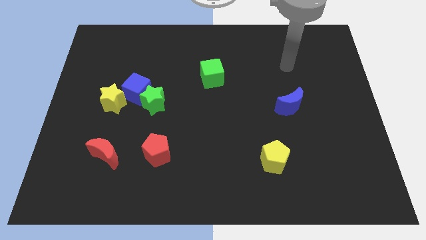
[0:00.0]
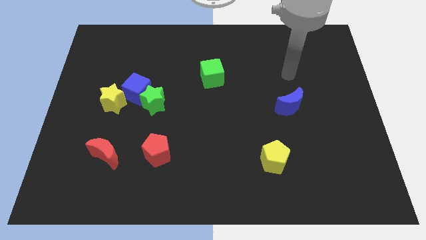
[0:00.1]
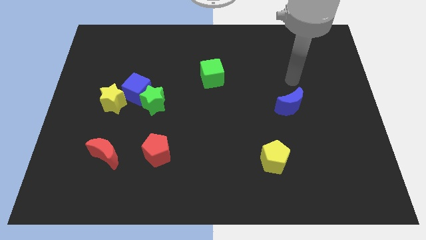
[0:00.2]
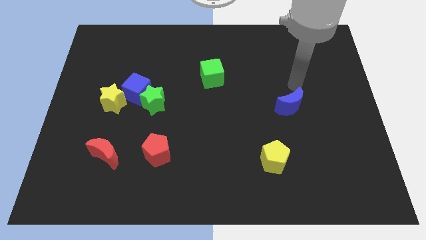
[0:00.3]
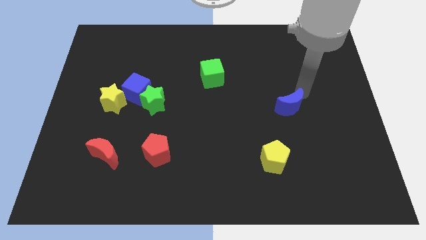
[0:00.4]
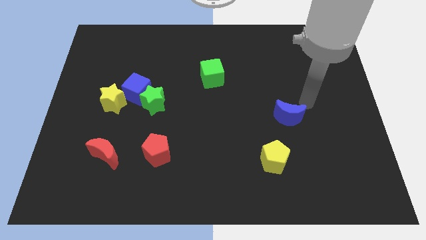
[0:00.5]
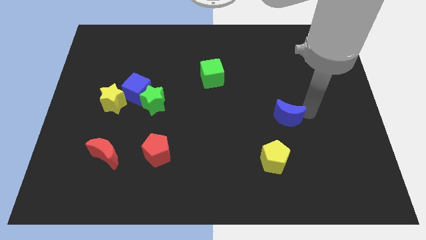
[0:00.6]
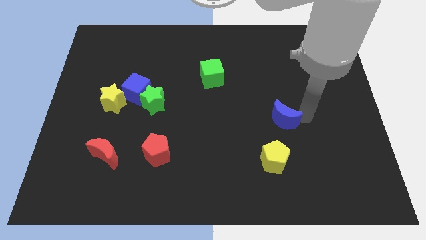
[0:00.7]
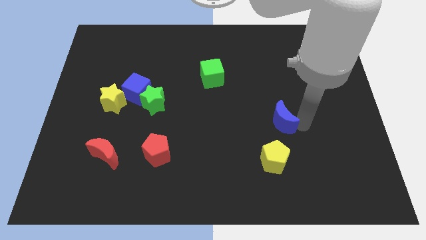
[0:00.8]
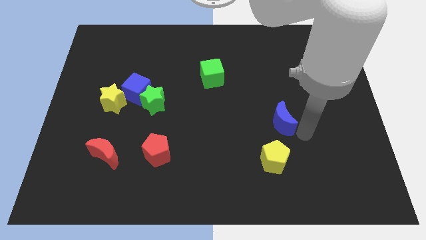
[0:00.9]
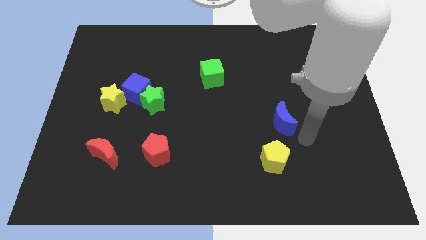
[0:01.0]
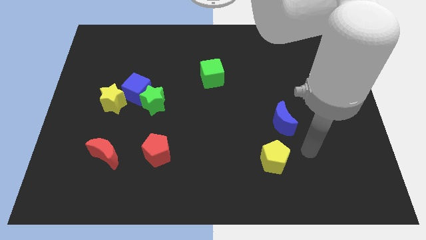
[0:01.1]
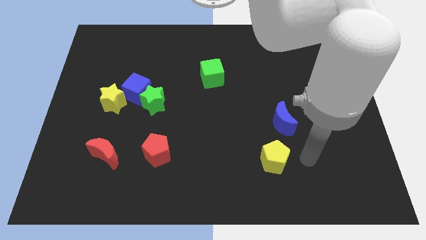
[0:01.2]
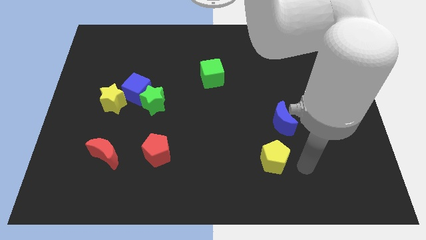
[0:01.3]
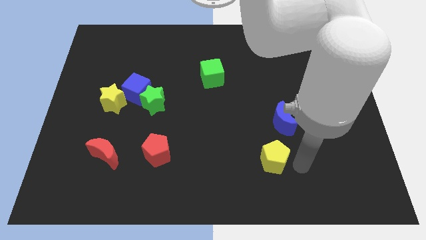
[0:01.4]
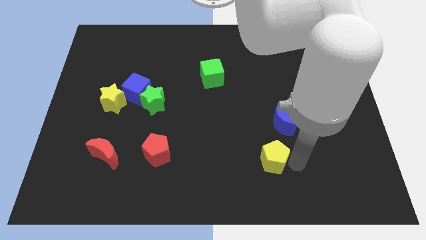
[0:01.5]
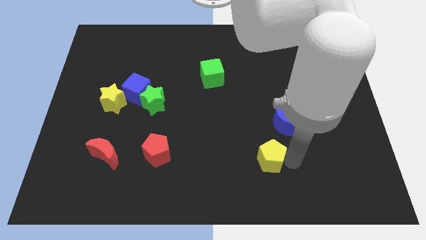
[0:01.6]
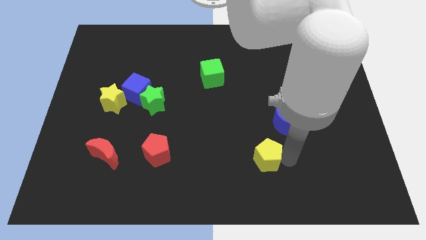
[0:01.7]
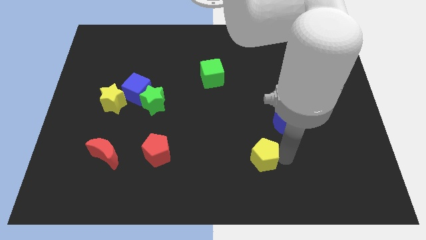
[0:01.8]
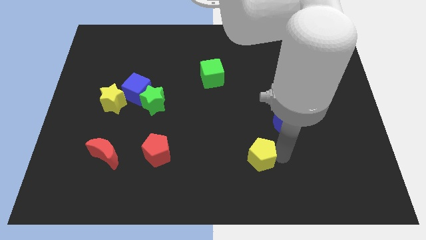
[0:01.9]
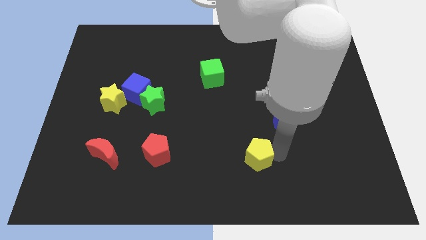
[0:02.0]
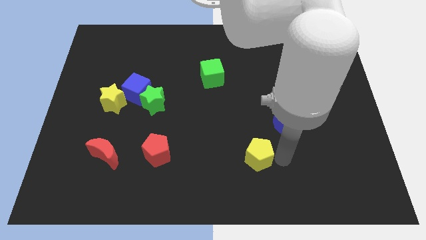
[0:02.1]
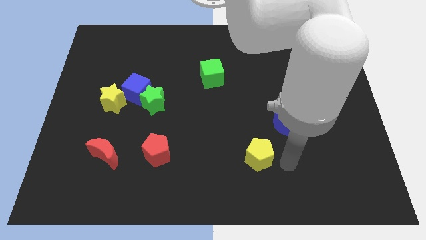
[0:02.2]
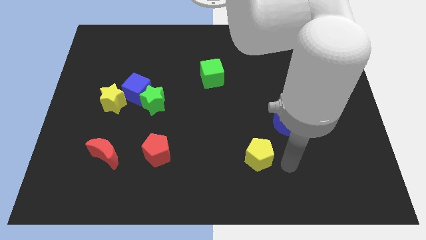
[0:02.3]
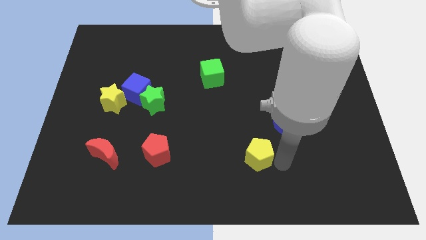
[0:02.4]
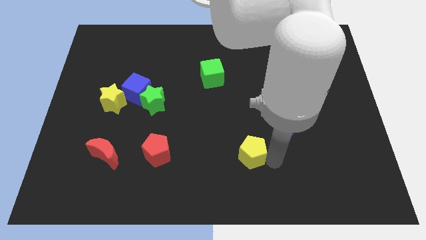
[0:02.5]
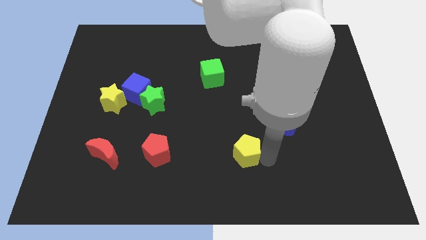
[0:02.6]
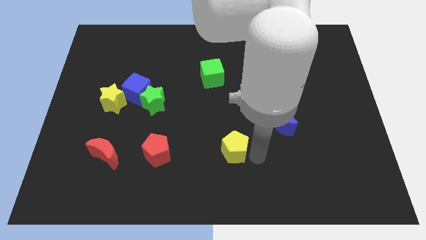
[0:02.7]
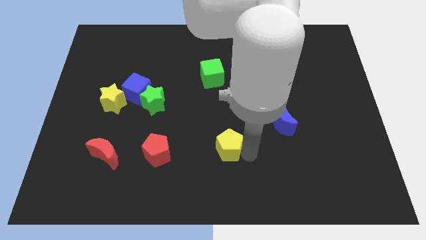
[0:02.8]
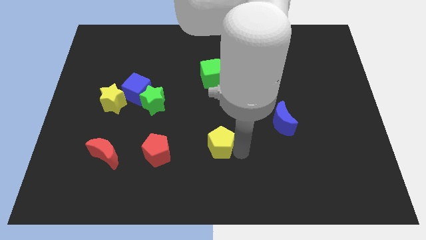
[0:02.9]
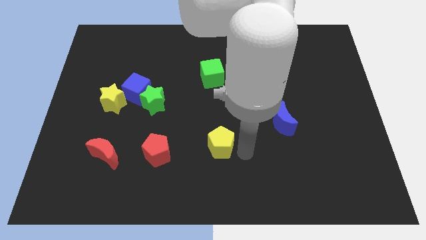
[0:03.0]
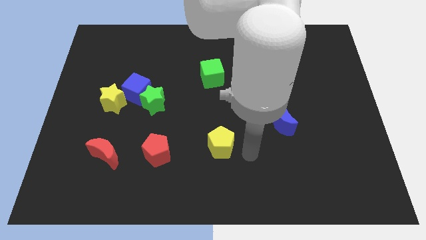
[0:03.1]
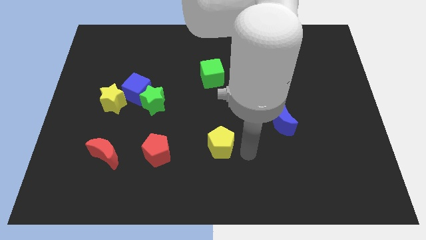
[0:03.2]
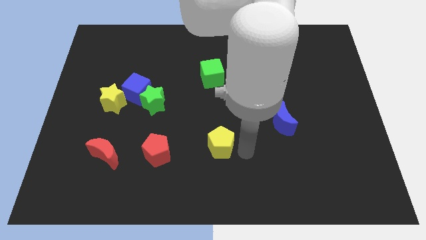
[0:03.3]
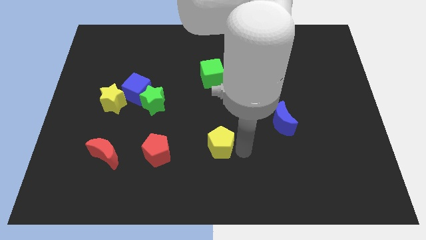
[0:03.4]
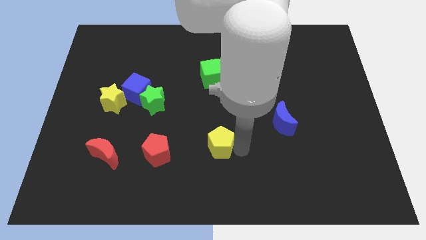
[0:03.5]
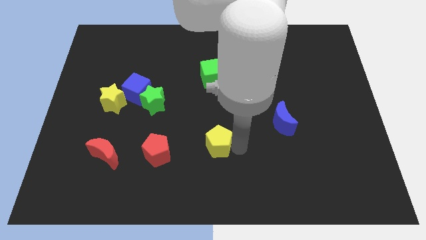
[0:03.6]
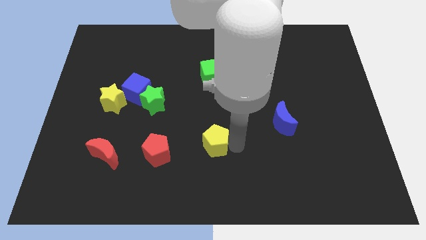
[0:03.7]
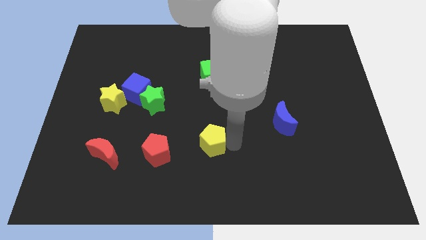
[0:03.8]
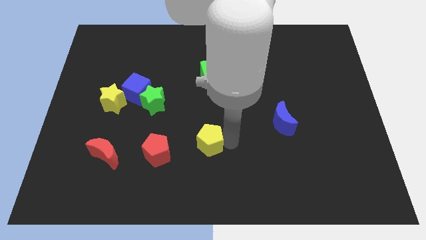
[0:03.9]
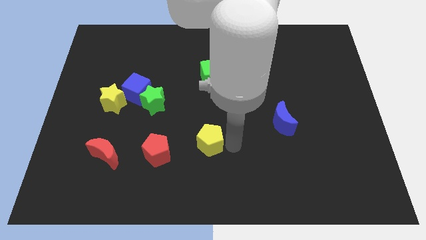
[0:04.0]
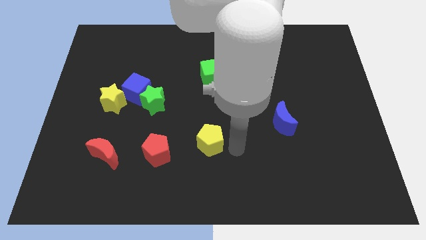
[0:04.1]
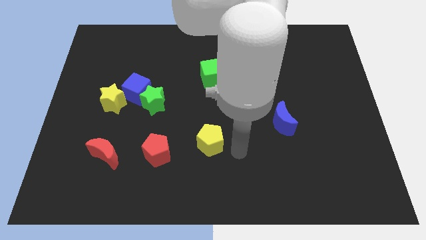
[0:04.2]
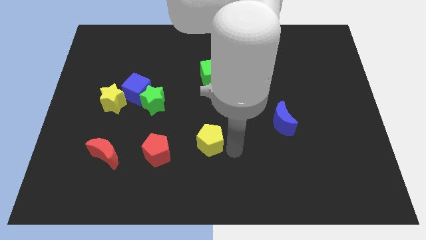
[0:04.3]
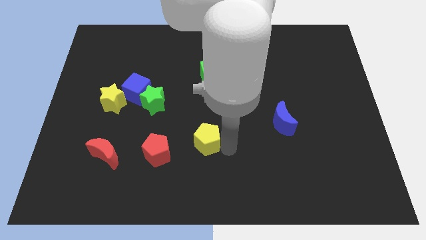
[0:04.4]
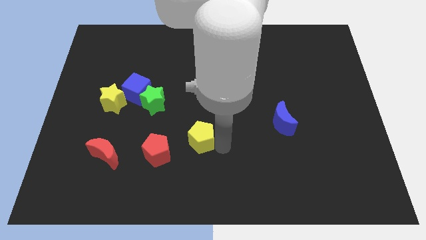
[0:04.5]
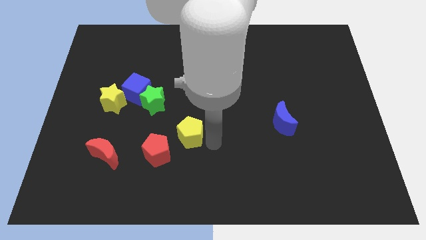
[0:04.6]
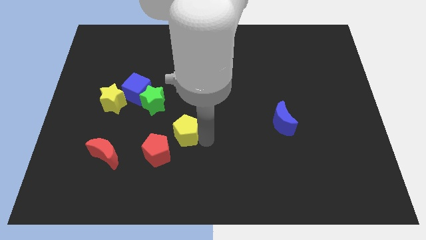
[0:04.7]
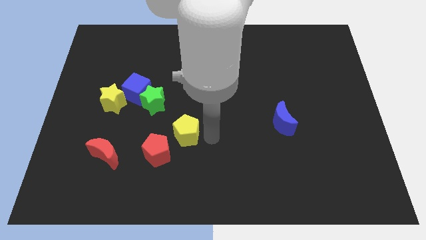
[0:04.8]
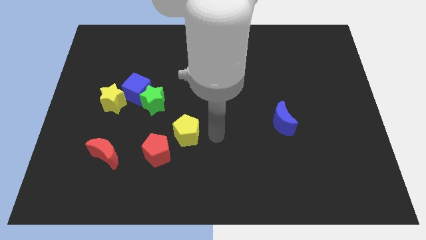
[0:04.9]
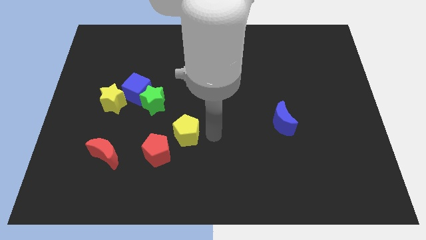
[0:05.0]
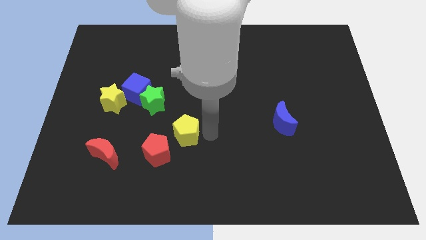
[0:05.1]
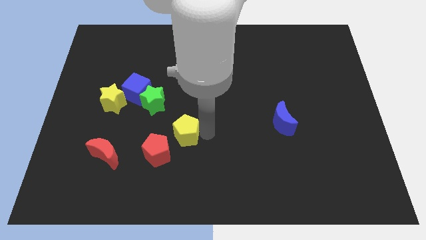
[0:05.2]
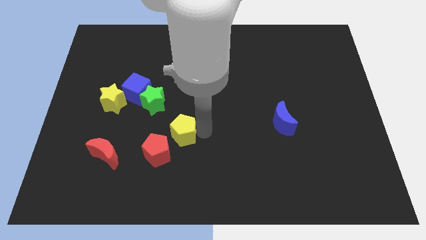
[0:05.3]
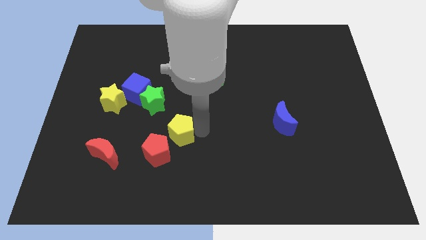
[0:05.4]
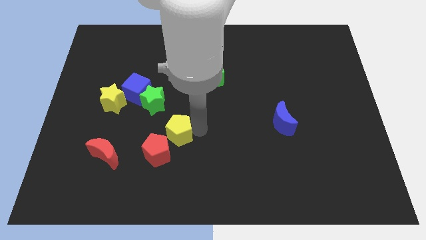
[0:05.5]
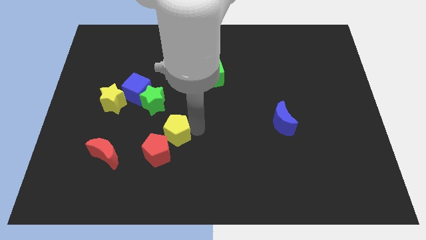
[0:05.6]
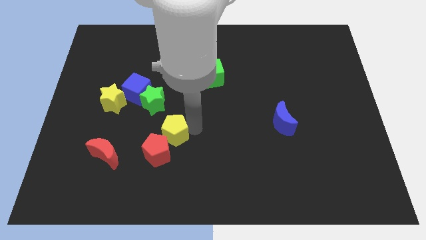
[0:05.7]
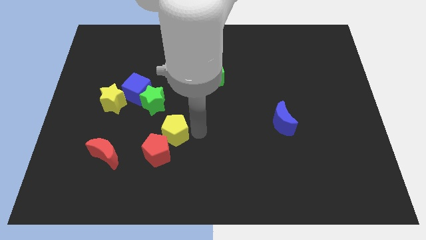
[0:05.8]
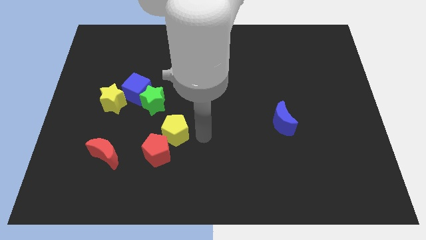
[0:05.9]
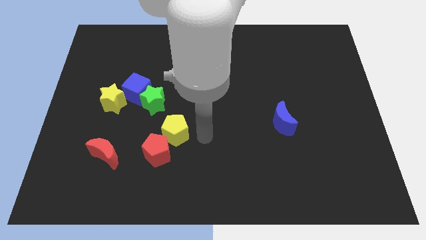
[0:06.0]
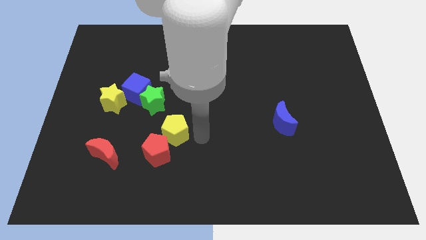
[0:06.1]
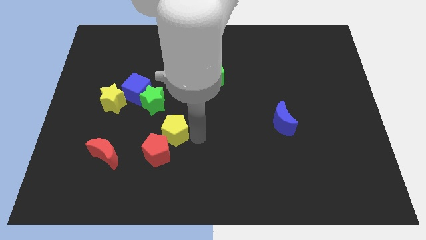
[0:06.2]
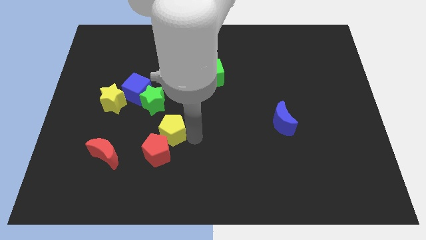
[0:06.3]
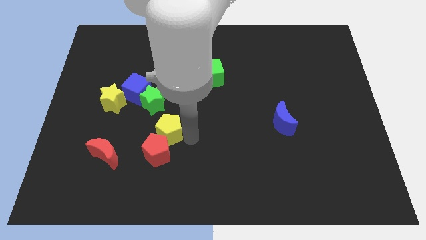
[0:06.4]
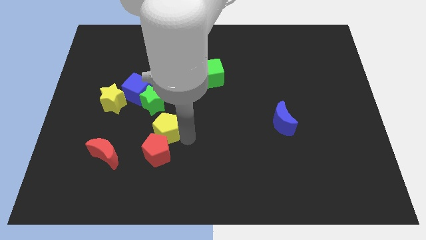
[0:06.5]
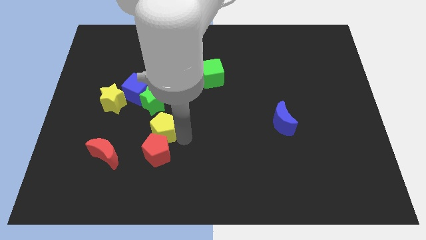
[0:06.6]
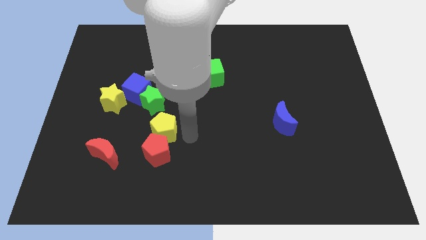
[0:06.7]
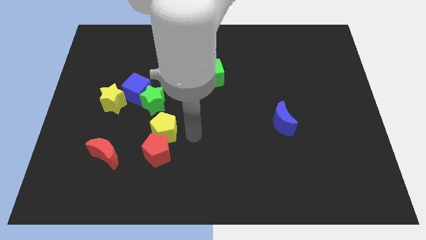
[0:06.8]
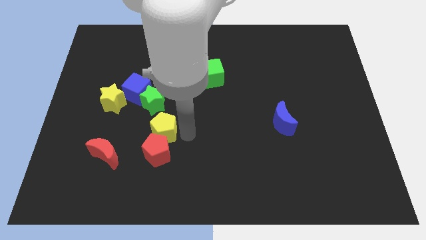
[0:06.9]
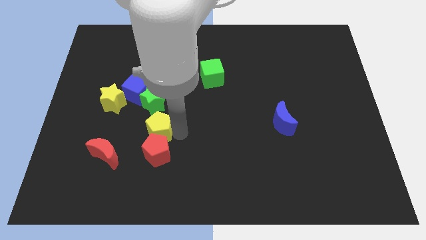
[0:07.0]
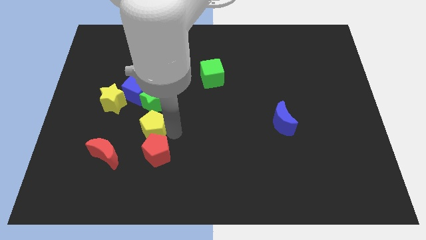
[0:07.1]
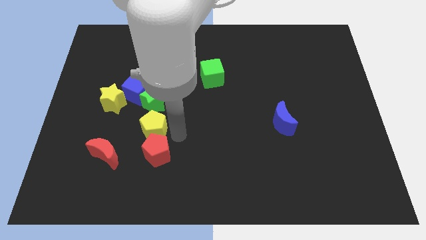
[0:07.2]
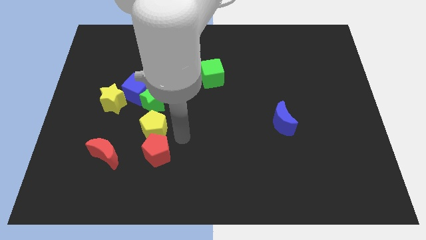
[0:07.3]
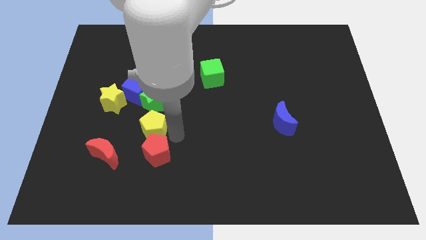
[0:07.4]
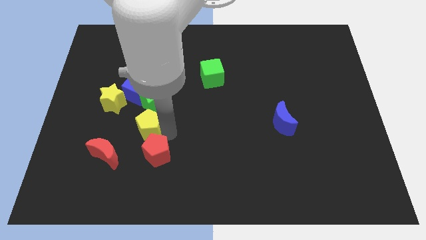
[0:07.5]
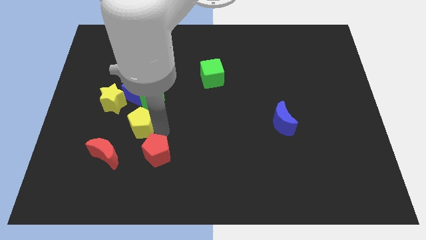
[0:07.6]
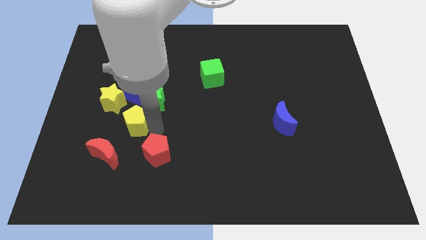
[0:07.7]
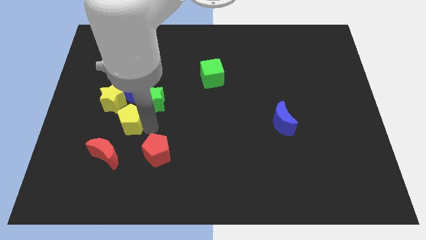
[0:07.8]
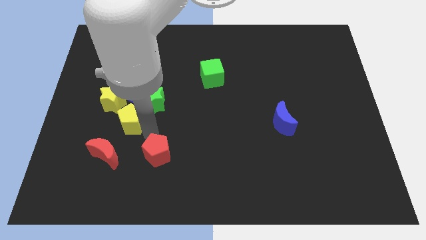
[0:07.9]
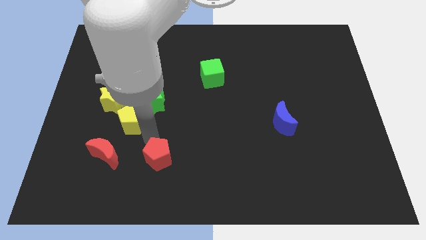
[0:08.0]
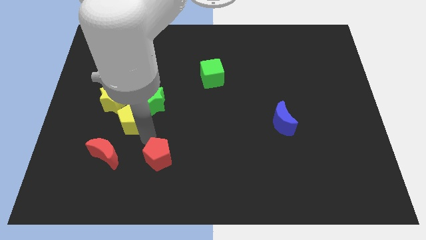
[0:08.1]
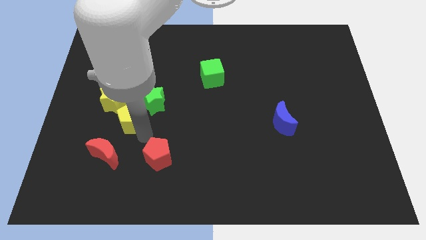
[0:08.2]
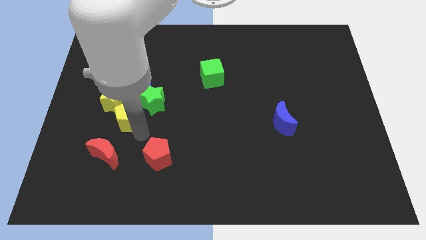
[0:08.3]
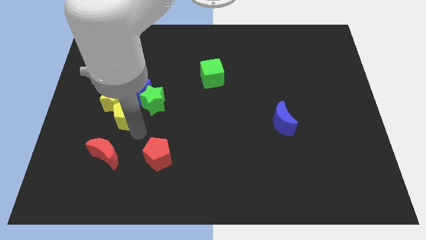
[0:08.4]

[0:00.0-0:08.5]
push the yellow pentagon to the yellow star
